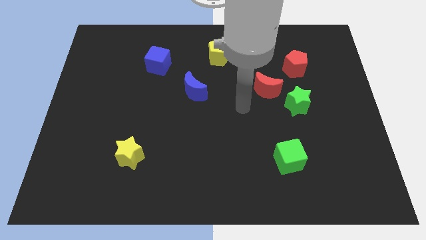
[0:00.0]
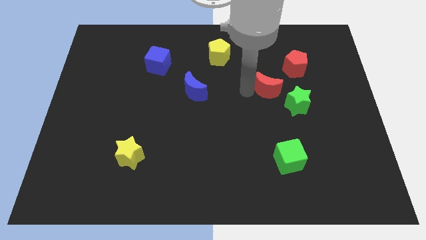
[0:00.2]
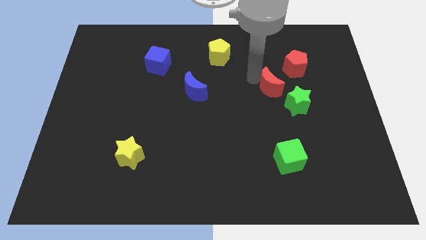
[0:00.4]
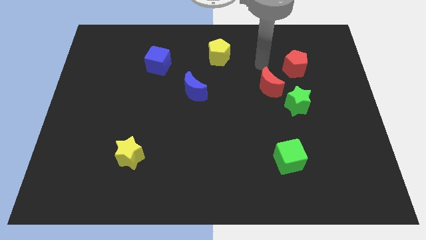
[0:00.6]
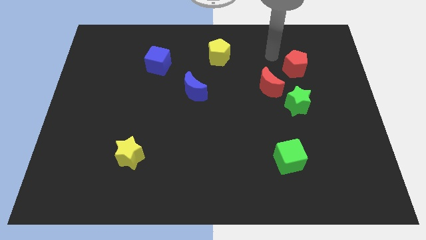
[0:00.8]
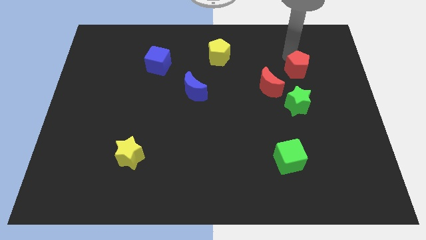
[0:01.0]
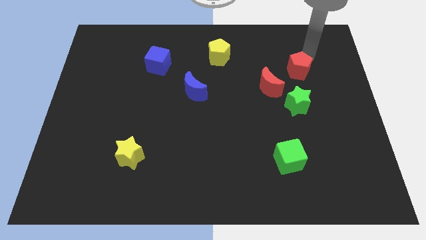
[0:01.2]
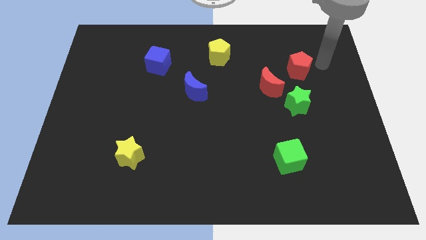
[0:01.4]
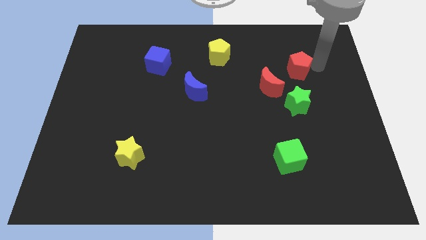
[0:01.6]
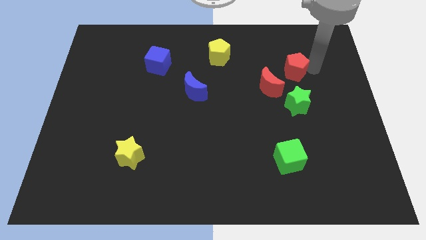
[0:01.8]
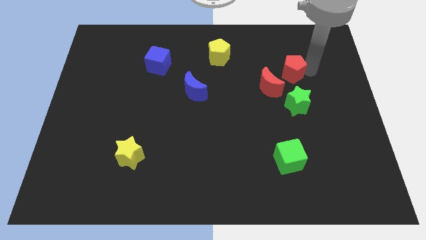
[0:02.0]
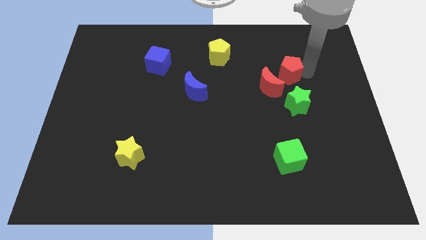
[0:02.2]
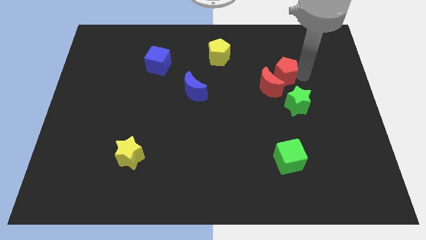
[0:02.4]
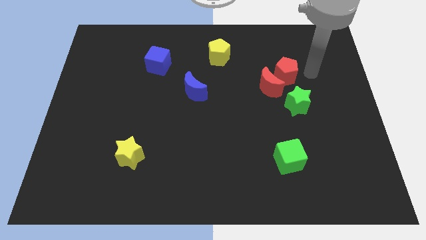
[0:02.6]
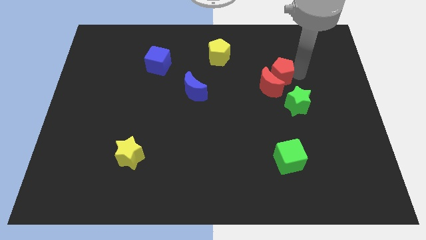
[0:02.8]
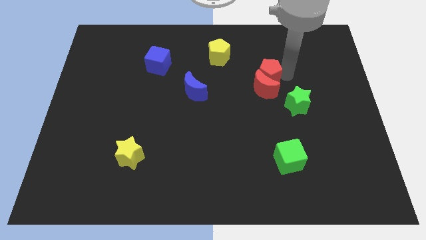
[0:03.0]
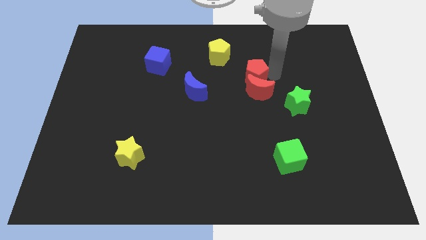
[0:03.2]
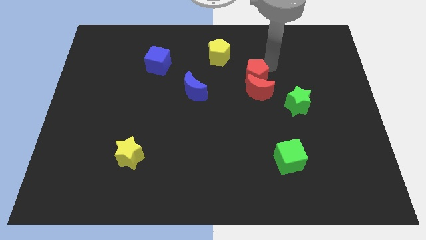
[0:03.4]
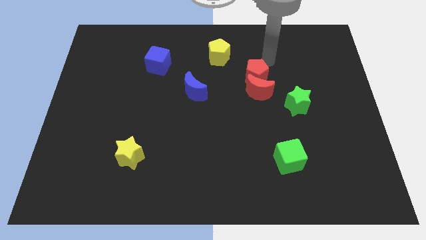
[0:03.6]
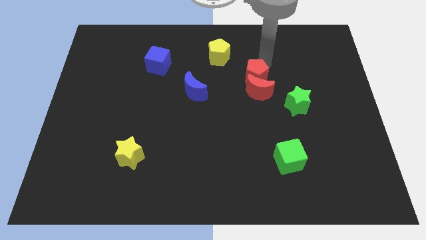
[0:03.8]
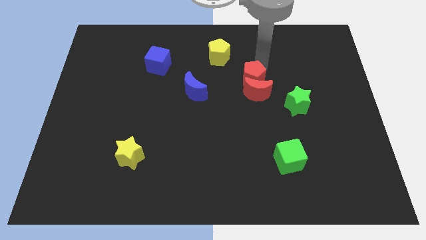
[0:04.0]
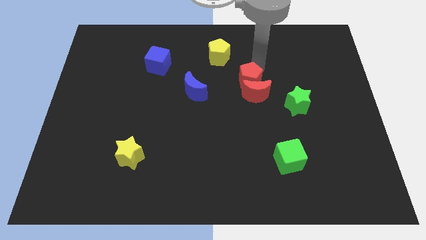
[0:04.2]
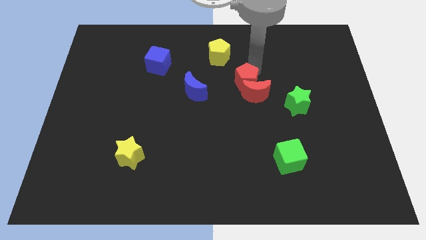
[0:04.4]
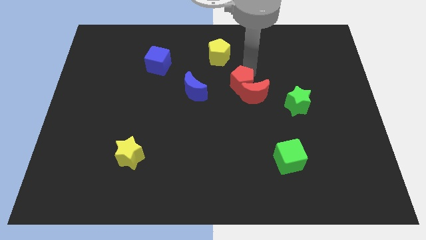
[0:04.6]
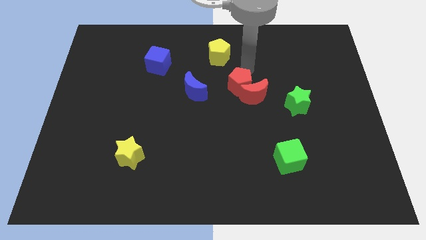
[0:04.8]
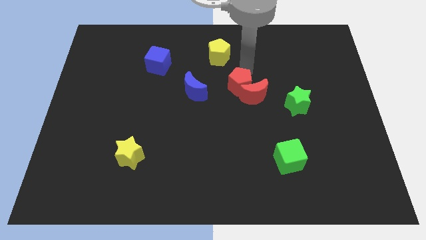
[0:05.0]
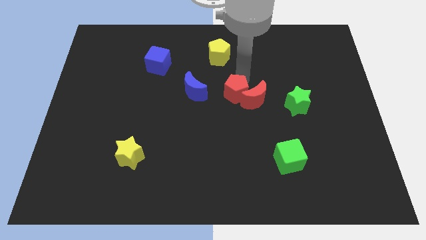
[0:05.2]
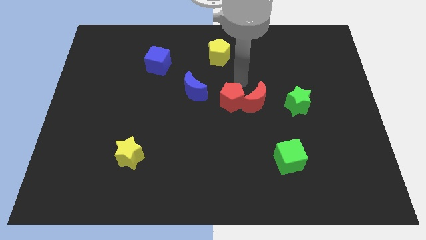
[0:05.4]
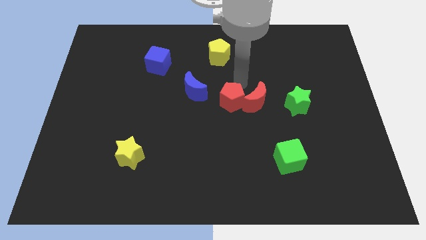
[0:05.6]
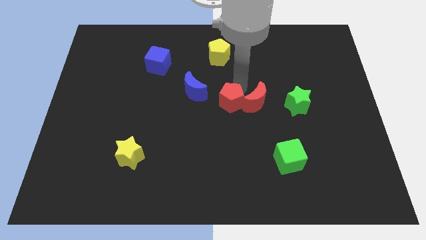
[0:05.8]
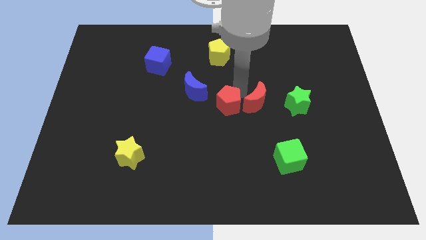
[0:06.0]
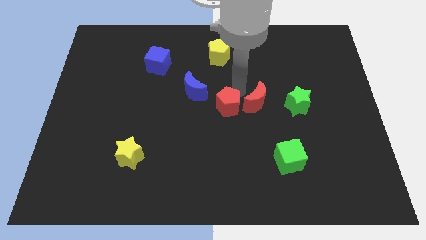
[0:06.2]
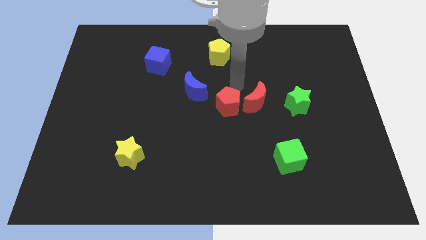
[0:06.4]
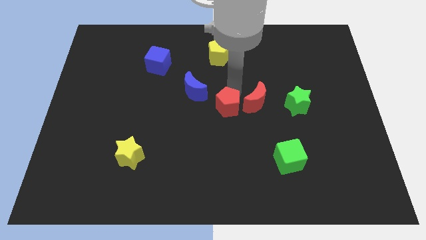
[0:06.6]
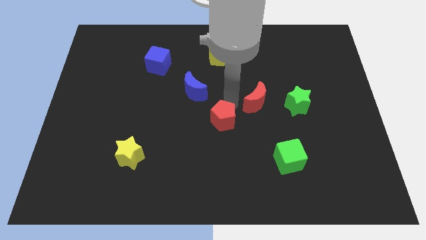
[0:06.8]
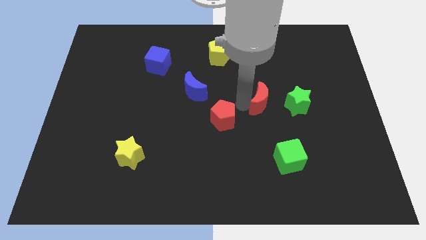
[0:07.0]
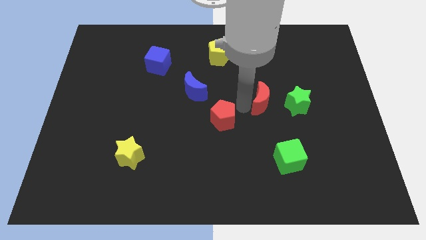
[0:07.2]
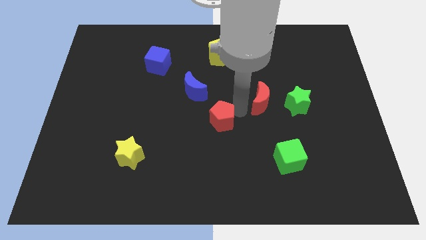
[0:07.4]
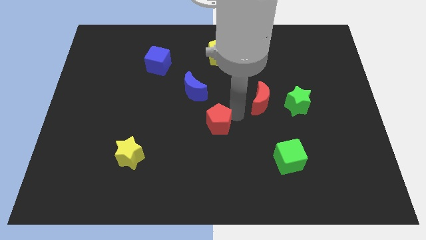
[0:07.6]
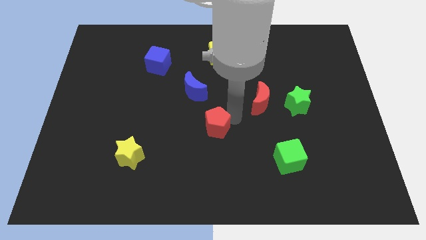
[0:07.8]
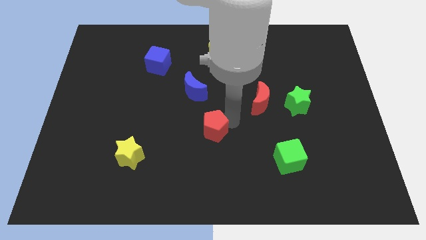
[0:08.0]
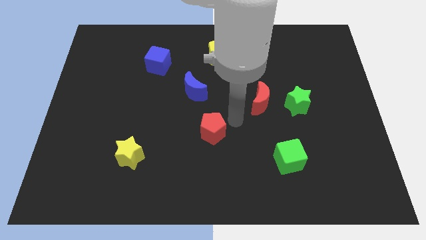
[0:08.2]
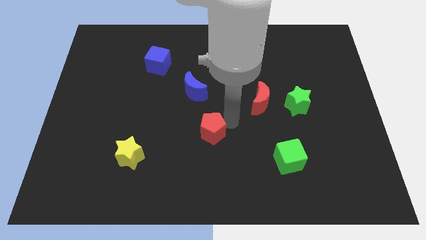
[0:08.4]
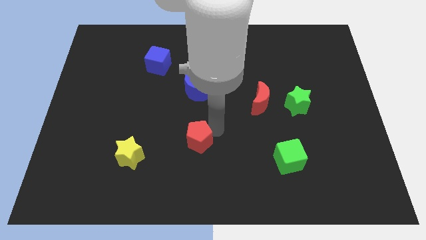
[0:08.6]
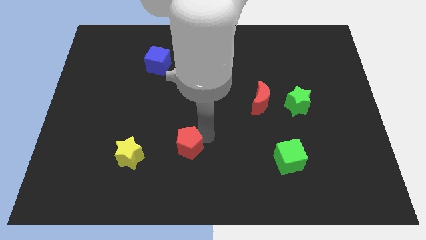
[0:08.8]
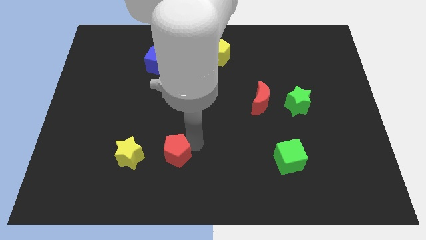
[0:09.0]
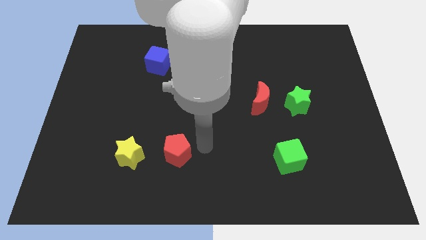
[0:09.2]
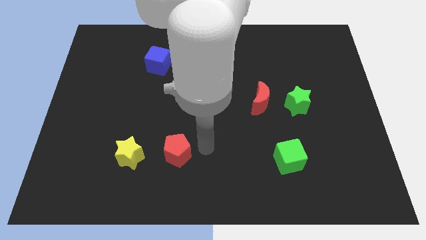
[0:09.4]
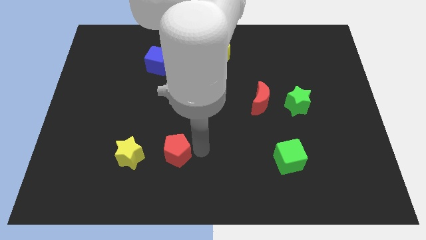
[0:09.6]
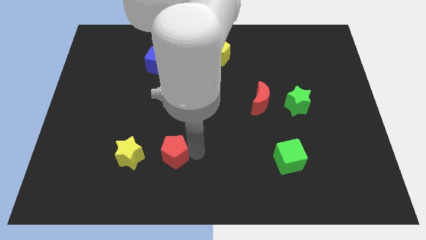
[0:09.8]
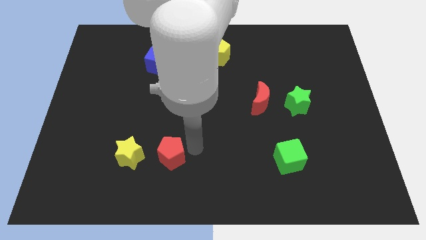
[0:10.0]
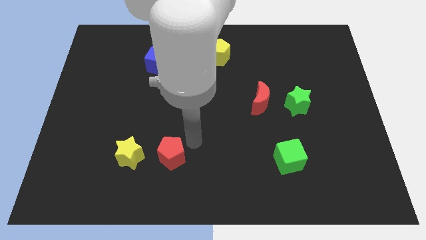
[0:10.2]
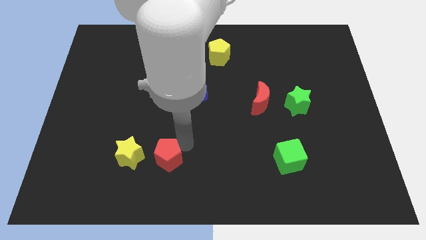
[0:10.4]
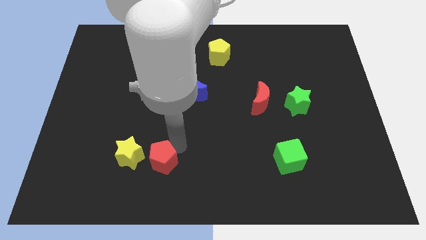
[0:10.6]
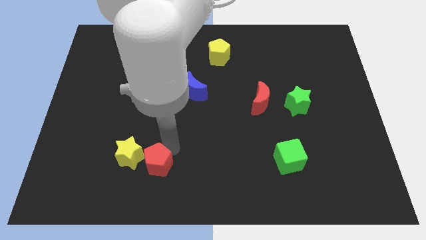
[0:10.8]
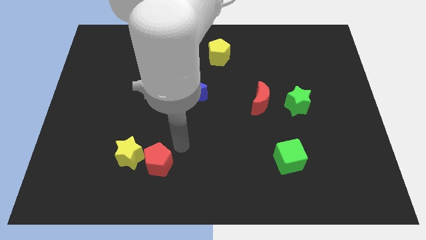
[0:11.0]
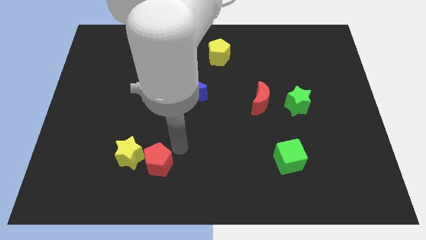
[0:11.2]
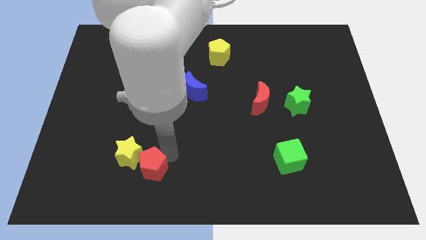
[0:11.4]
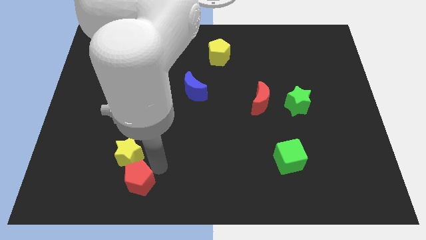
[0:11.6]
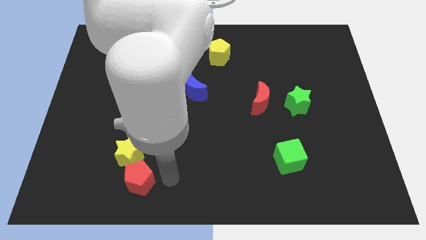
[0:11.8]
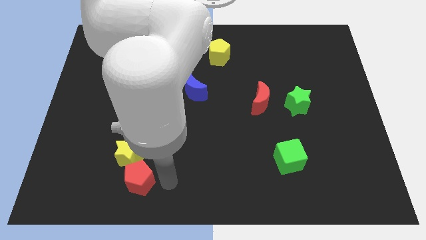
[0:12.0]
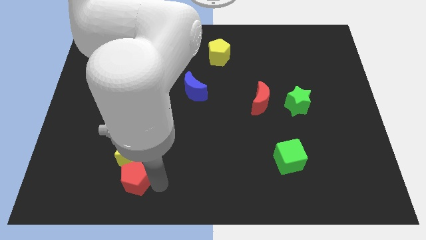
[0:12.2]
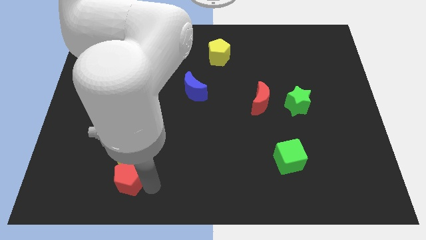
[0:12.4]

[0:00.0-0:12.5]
put the red pentagon to the bottom left of the yellow star

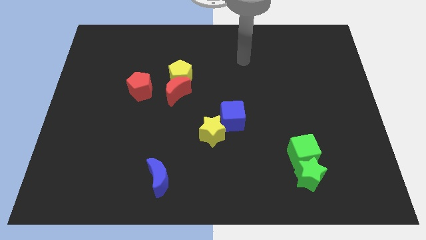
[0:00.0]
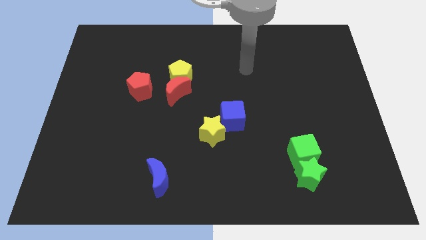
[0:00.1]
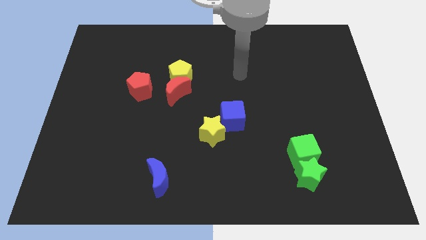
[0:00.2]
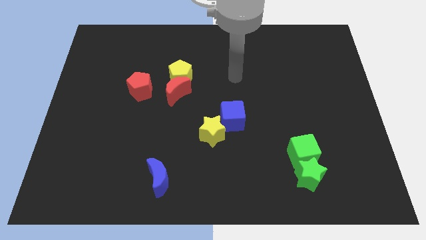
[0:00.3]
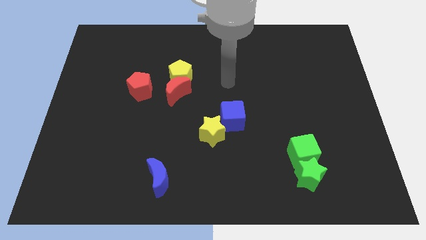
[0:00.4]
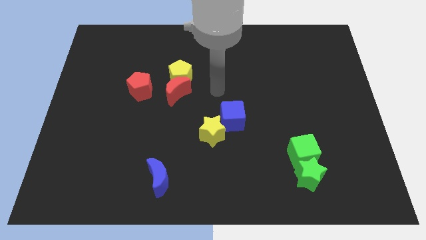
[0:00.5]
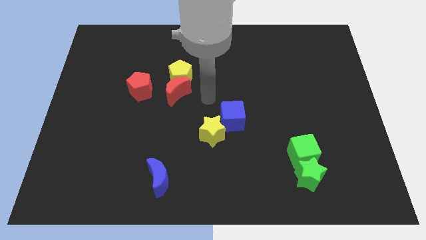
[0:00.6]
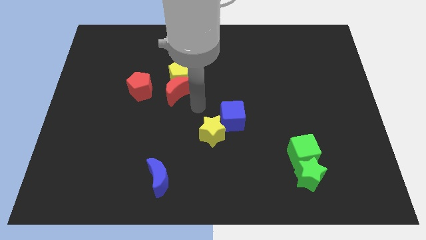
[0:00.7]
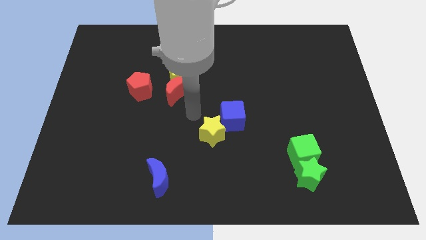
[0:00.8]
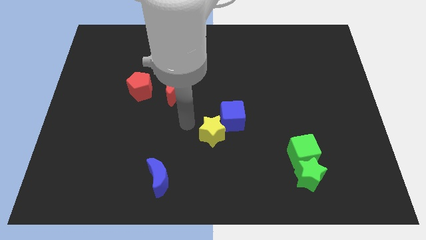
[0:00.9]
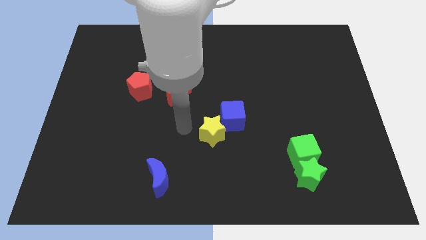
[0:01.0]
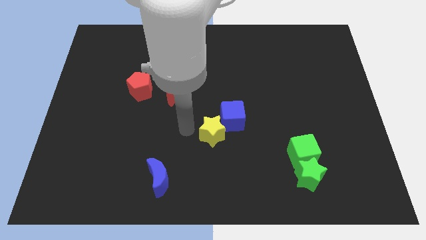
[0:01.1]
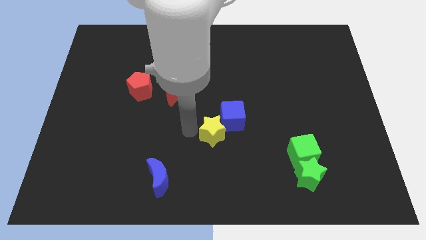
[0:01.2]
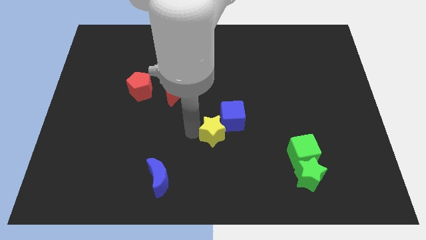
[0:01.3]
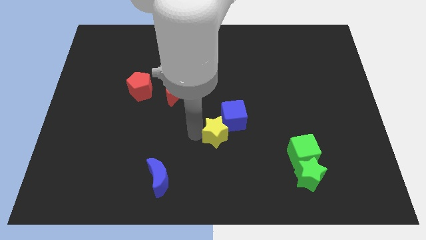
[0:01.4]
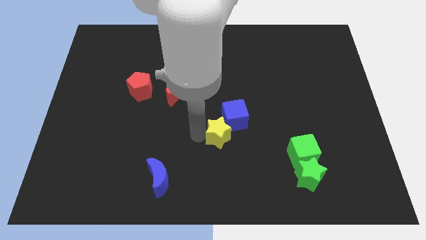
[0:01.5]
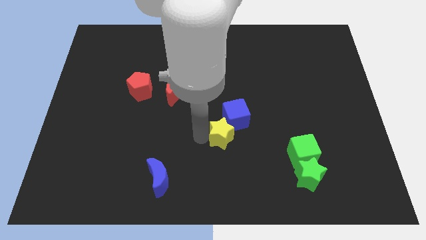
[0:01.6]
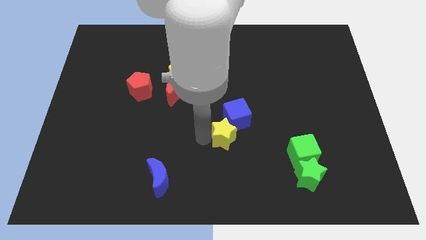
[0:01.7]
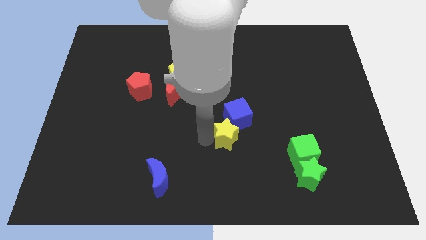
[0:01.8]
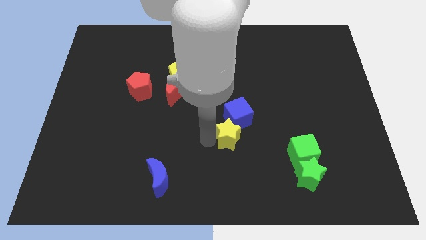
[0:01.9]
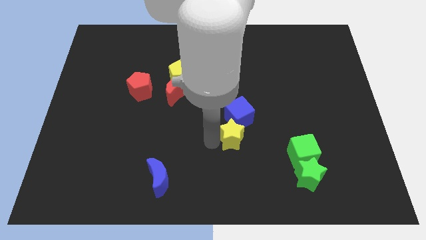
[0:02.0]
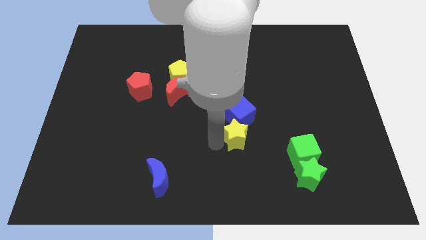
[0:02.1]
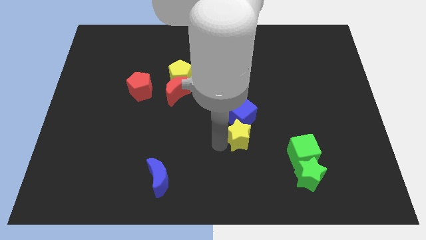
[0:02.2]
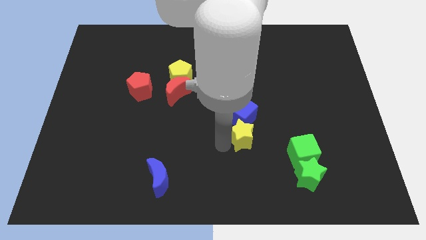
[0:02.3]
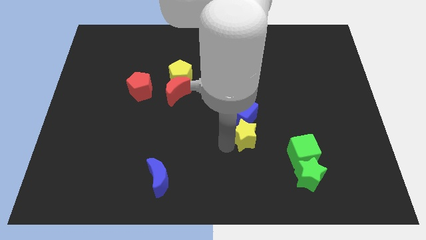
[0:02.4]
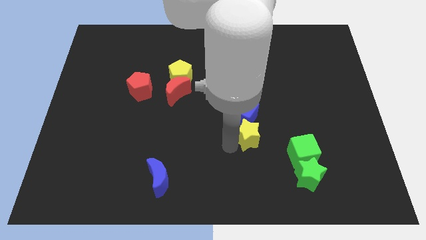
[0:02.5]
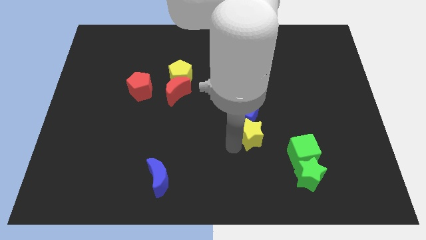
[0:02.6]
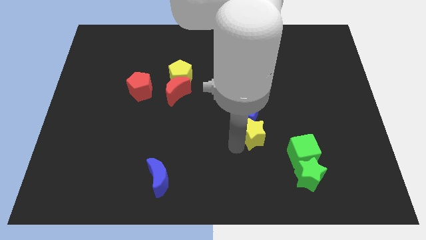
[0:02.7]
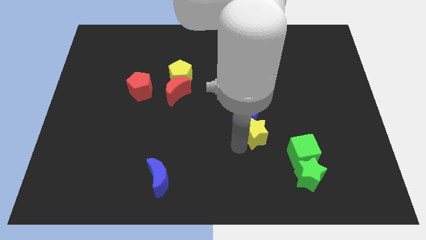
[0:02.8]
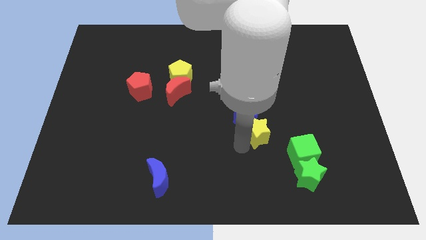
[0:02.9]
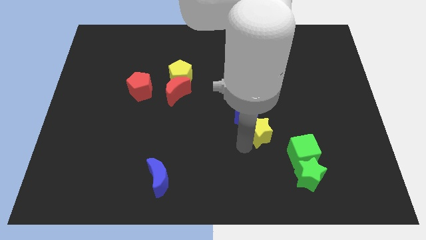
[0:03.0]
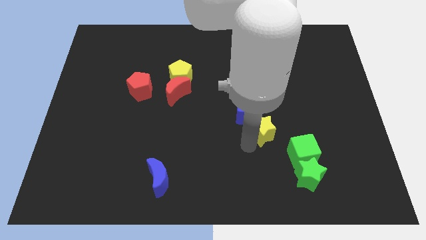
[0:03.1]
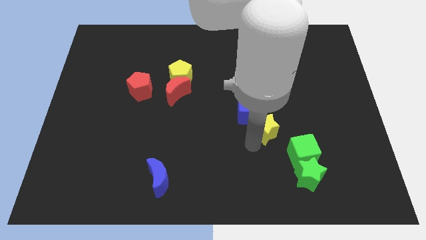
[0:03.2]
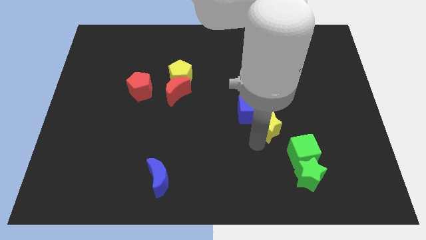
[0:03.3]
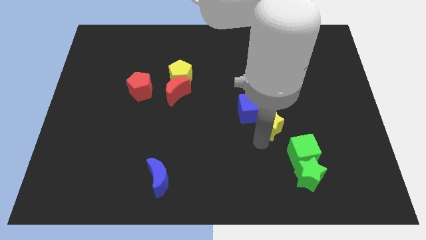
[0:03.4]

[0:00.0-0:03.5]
push the yellow star just right of the blue cube
